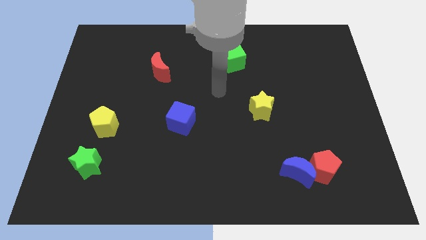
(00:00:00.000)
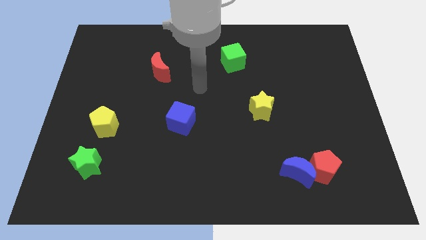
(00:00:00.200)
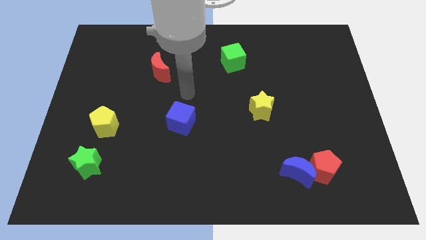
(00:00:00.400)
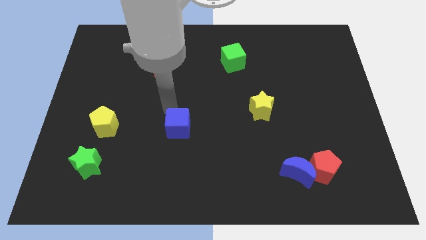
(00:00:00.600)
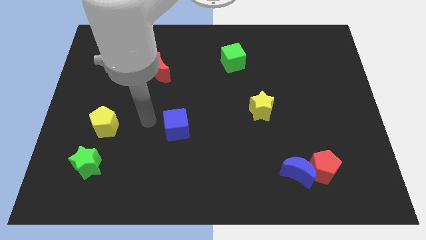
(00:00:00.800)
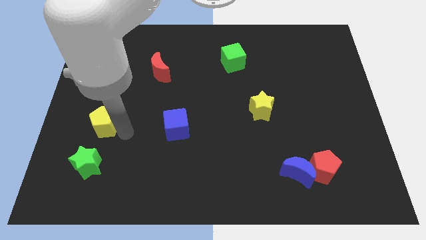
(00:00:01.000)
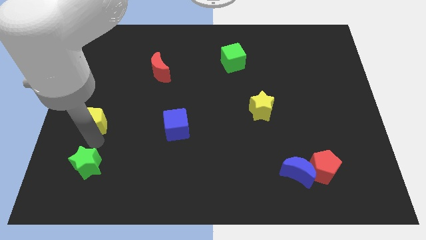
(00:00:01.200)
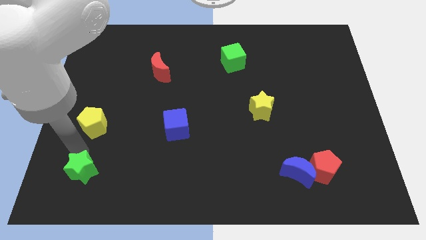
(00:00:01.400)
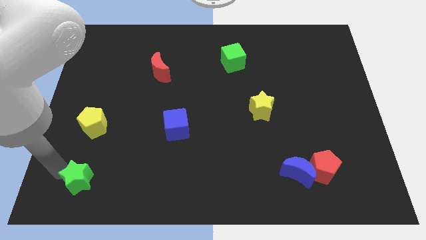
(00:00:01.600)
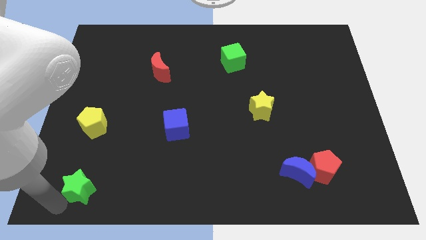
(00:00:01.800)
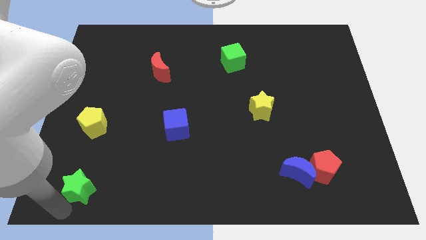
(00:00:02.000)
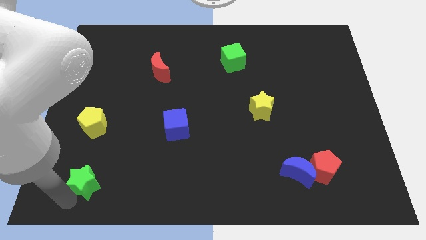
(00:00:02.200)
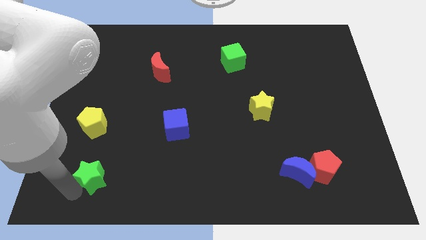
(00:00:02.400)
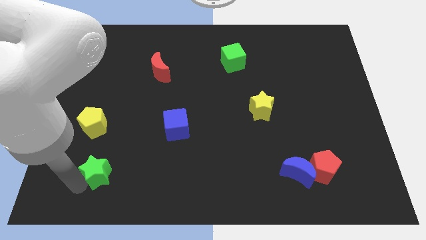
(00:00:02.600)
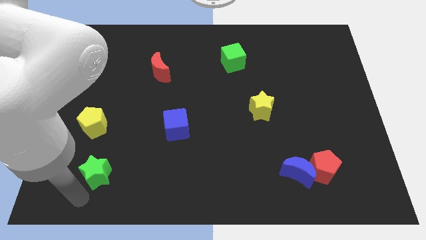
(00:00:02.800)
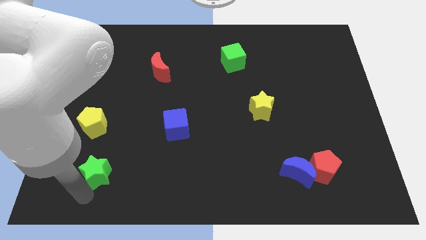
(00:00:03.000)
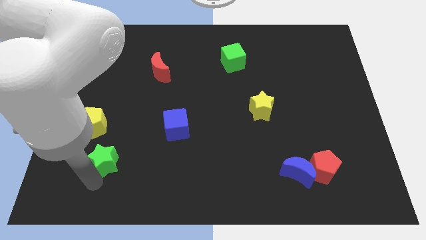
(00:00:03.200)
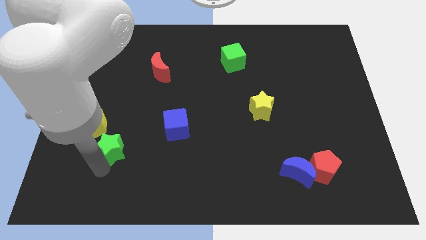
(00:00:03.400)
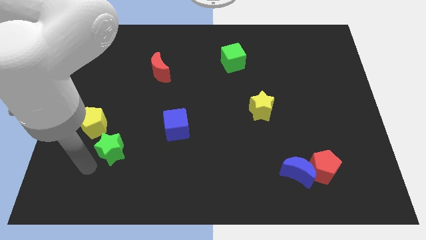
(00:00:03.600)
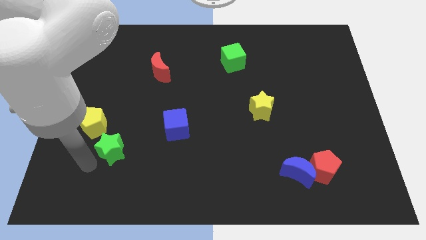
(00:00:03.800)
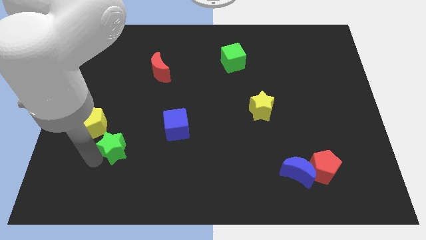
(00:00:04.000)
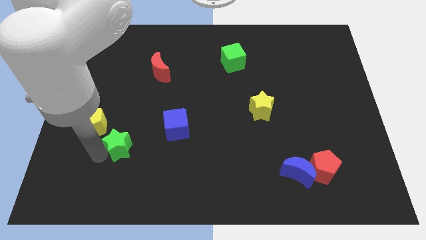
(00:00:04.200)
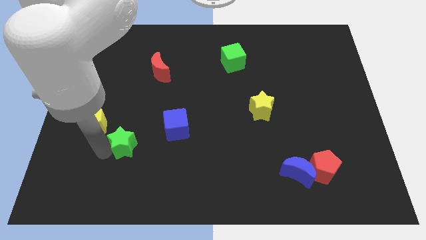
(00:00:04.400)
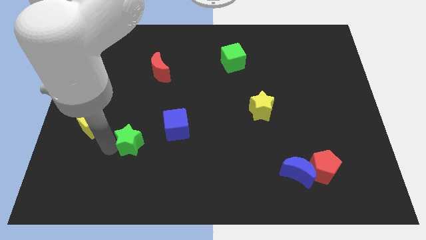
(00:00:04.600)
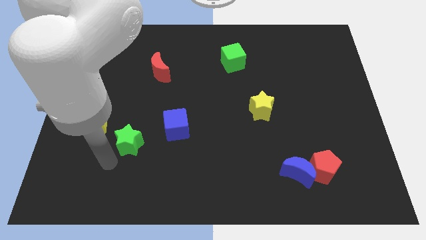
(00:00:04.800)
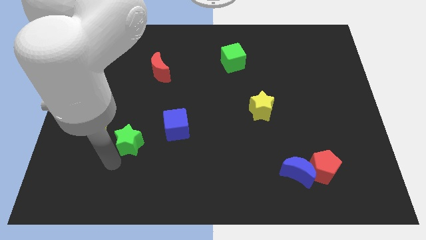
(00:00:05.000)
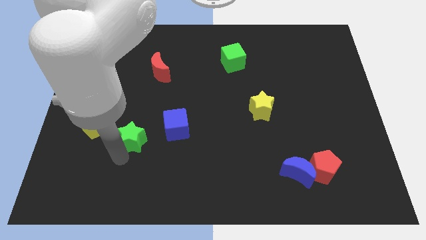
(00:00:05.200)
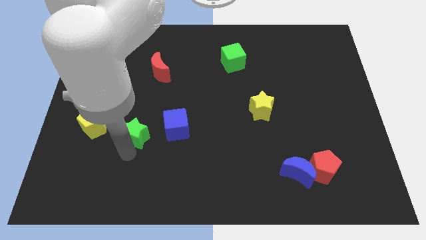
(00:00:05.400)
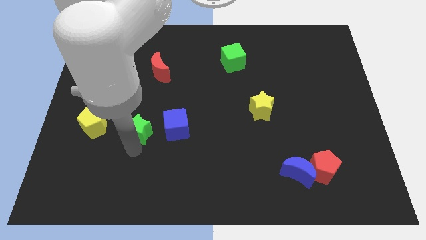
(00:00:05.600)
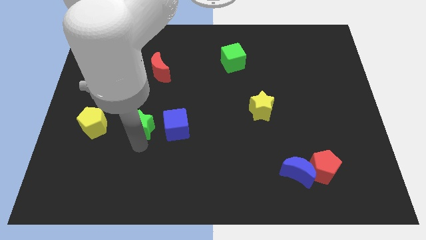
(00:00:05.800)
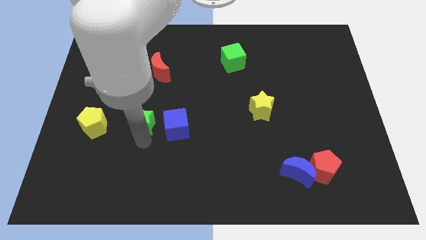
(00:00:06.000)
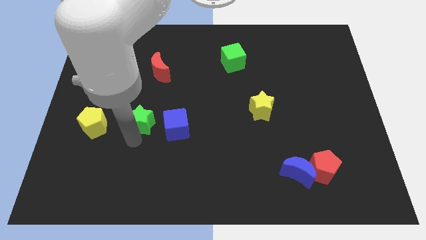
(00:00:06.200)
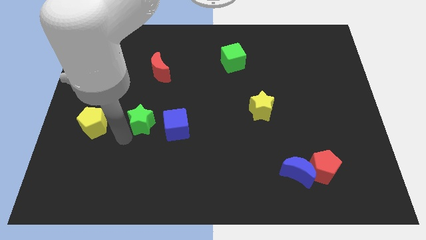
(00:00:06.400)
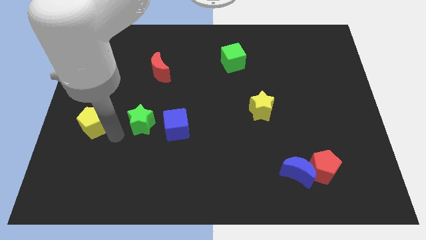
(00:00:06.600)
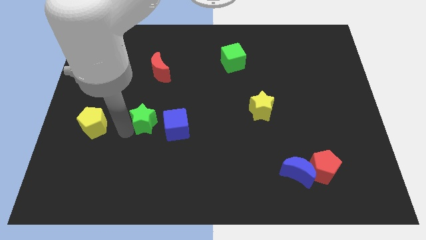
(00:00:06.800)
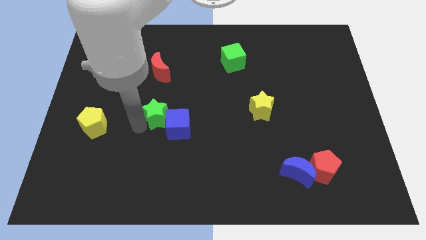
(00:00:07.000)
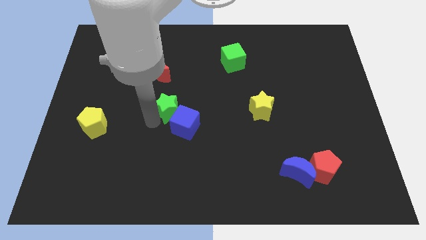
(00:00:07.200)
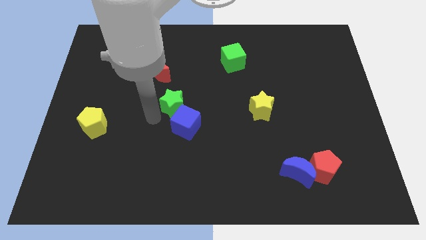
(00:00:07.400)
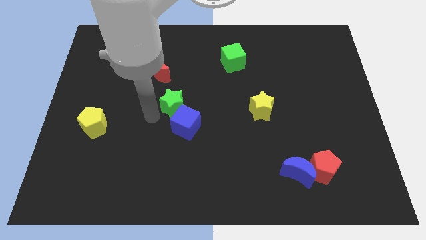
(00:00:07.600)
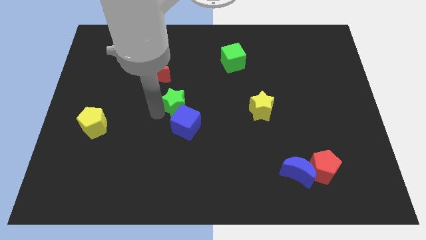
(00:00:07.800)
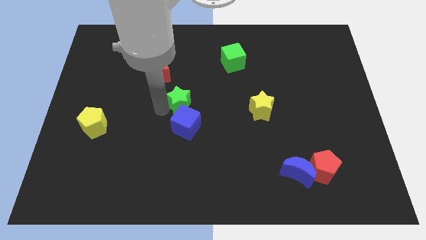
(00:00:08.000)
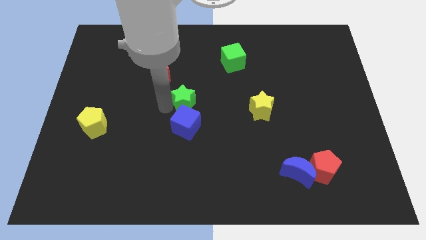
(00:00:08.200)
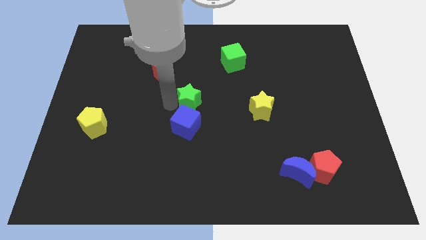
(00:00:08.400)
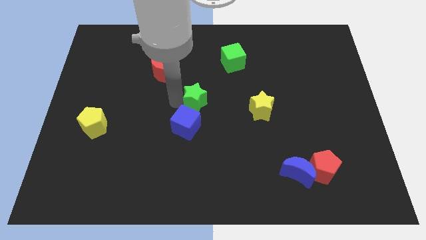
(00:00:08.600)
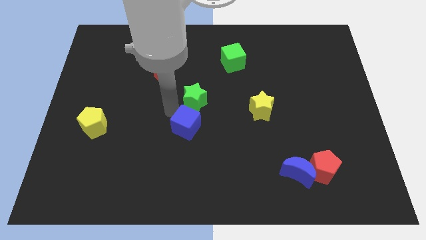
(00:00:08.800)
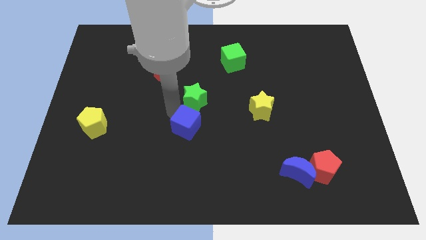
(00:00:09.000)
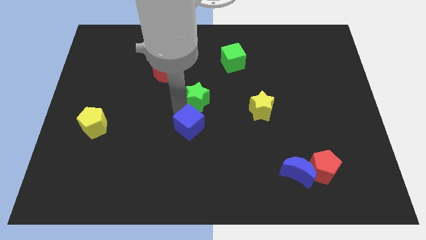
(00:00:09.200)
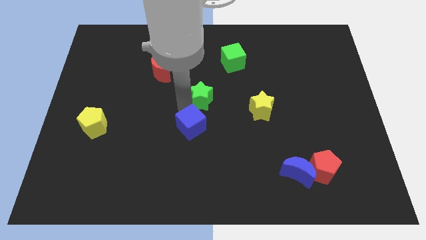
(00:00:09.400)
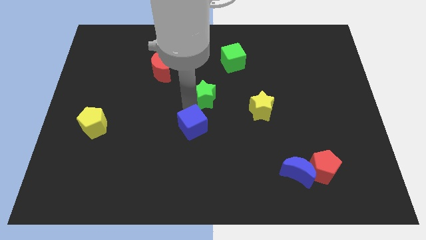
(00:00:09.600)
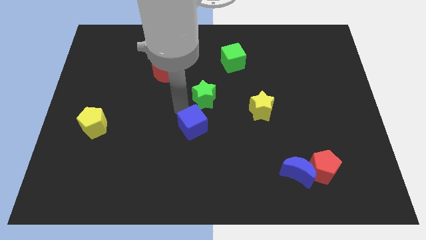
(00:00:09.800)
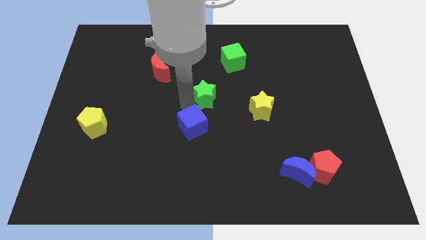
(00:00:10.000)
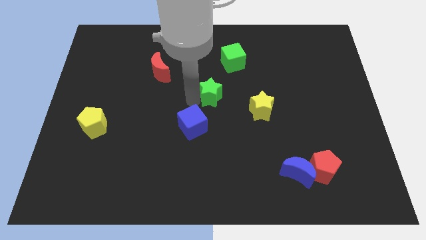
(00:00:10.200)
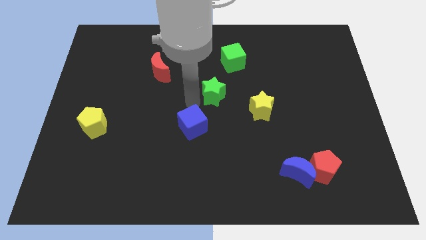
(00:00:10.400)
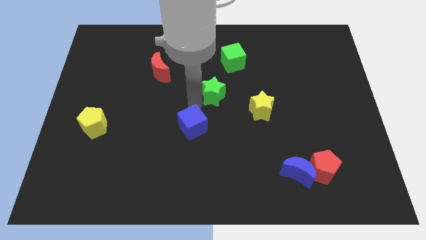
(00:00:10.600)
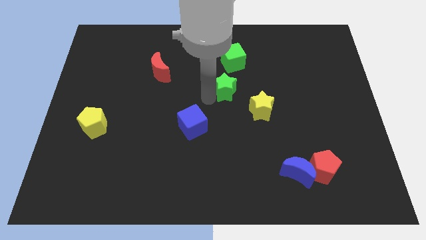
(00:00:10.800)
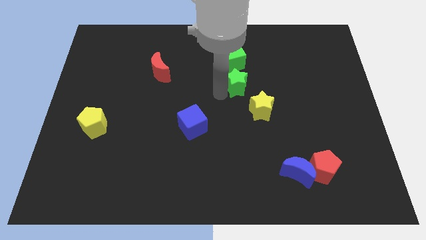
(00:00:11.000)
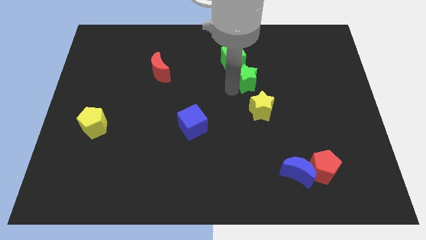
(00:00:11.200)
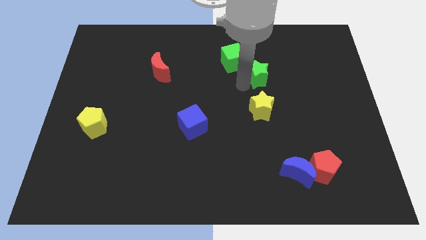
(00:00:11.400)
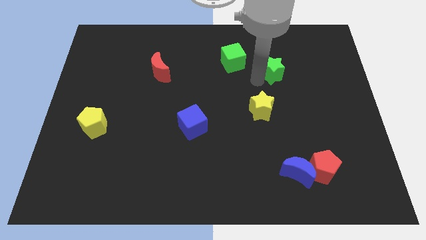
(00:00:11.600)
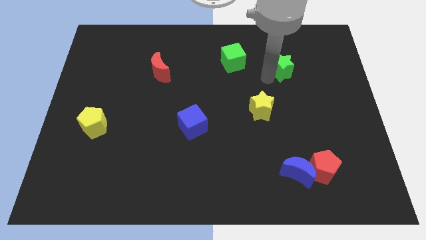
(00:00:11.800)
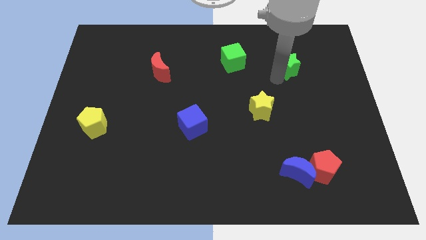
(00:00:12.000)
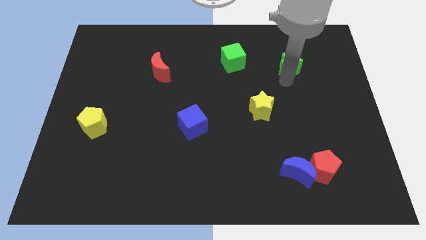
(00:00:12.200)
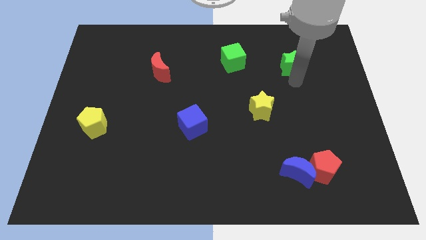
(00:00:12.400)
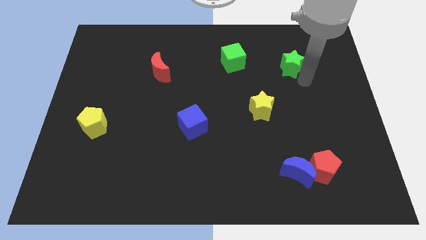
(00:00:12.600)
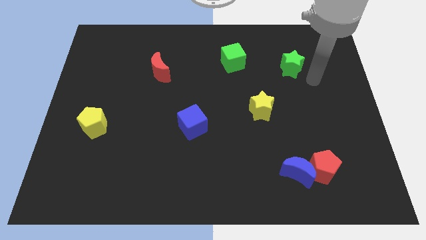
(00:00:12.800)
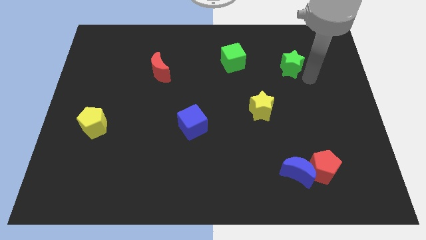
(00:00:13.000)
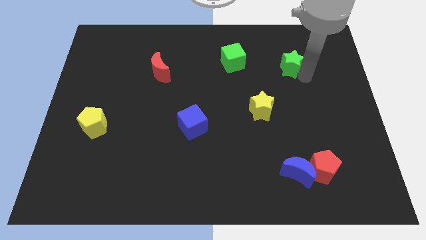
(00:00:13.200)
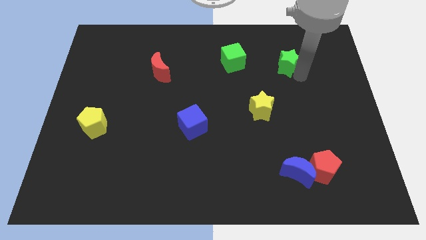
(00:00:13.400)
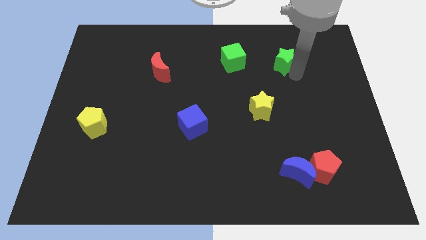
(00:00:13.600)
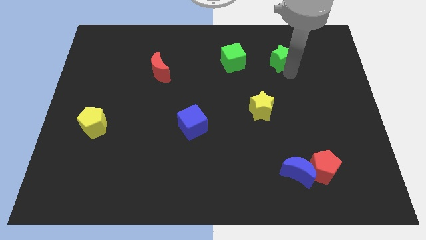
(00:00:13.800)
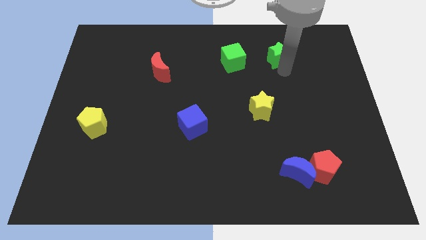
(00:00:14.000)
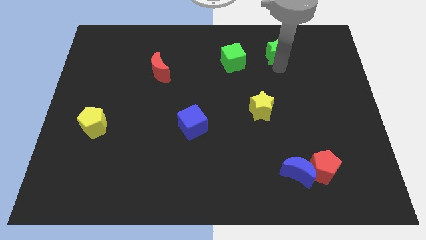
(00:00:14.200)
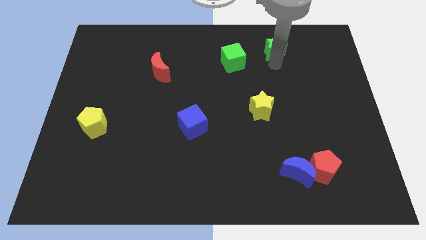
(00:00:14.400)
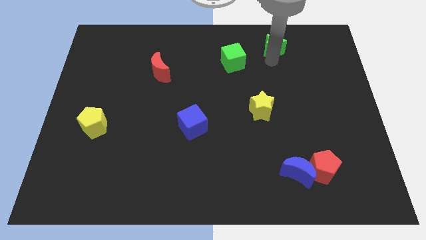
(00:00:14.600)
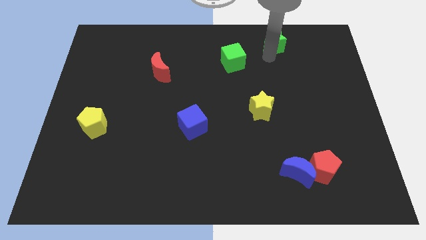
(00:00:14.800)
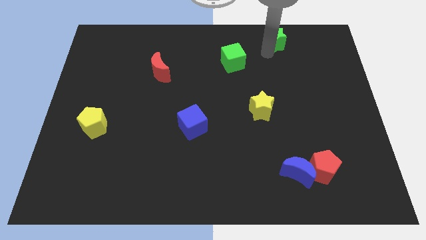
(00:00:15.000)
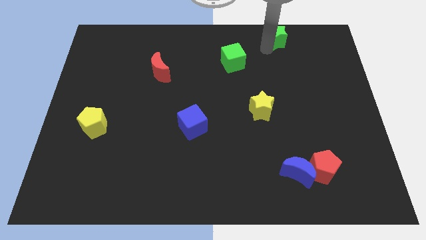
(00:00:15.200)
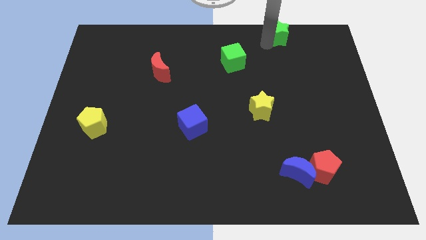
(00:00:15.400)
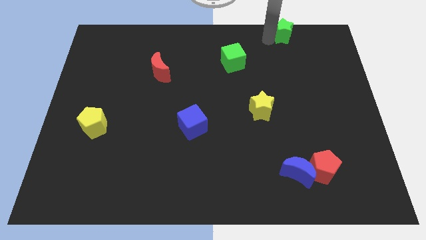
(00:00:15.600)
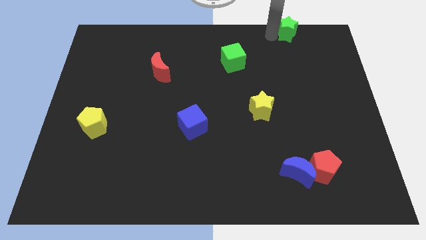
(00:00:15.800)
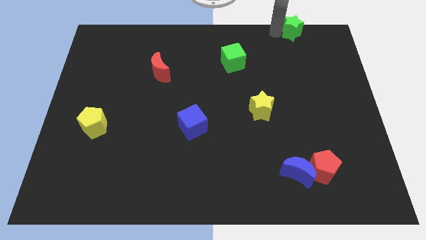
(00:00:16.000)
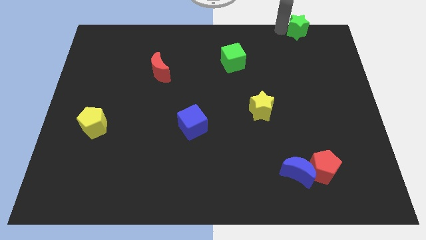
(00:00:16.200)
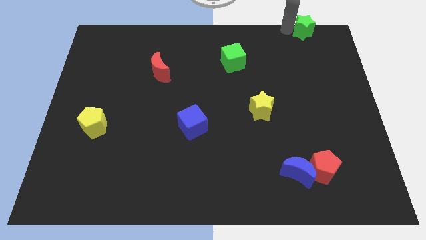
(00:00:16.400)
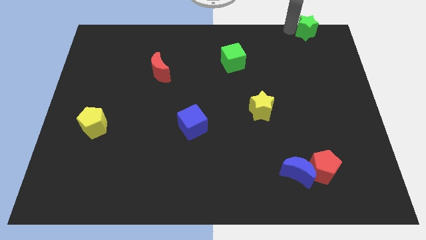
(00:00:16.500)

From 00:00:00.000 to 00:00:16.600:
put the green star to the top right corner
